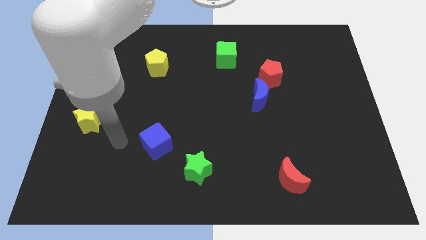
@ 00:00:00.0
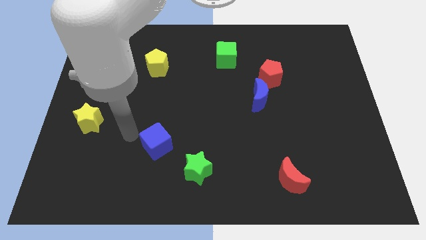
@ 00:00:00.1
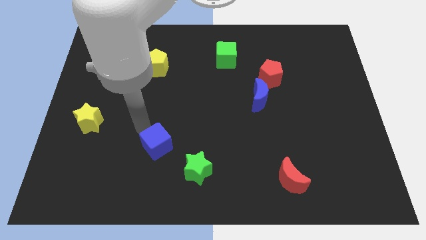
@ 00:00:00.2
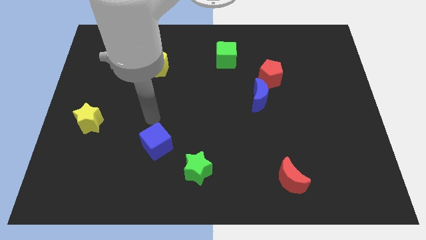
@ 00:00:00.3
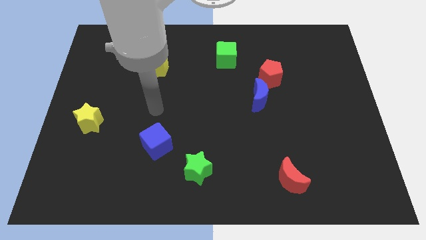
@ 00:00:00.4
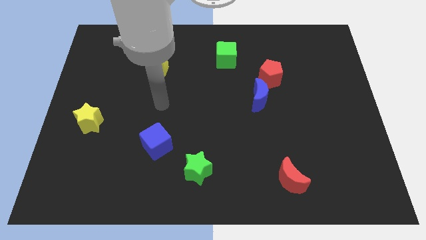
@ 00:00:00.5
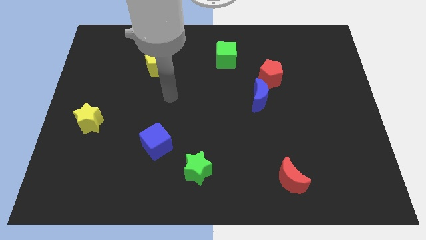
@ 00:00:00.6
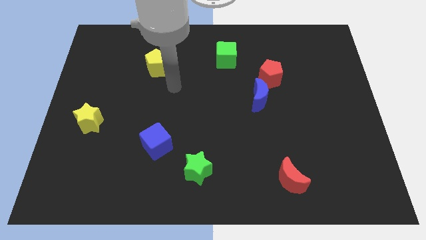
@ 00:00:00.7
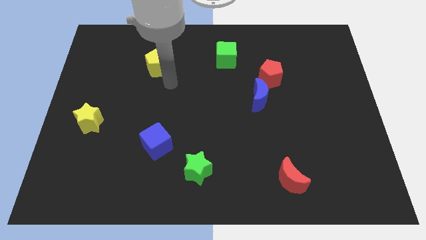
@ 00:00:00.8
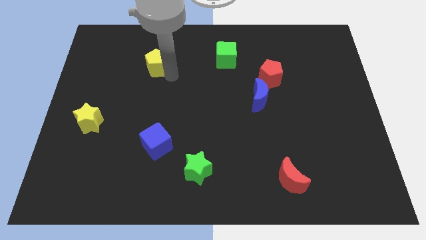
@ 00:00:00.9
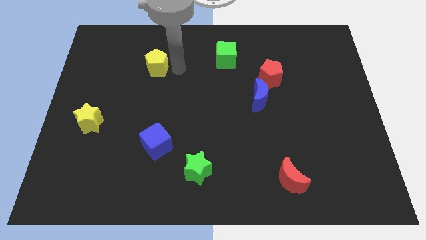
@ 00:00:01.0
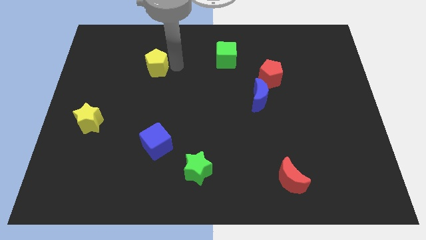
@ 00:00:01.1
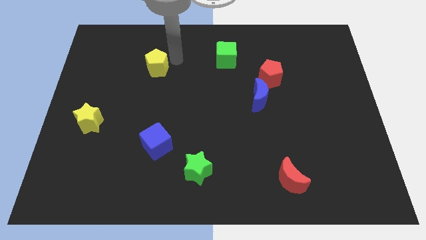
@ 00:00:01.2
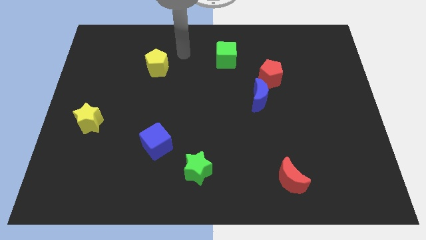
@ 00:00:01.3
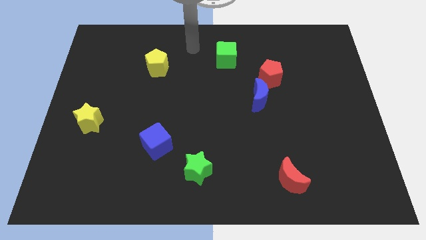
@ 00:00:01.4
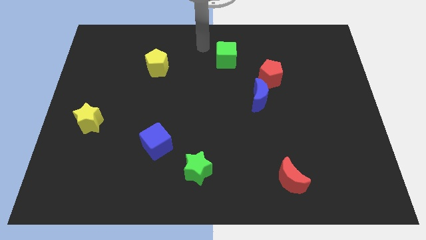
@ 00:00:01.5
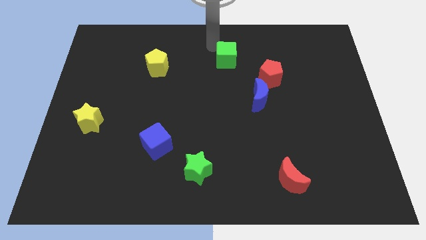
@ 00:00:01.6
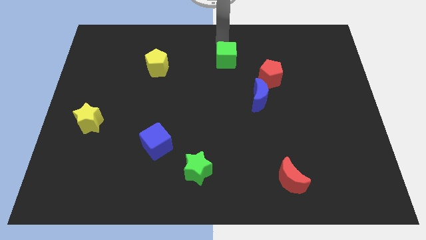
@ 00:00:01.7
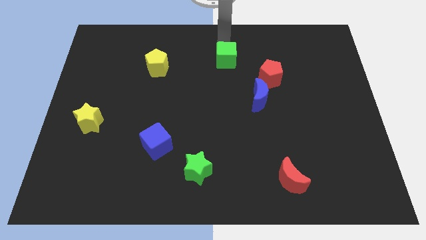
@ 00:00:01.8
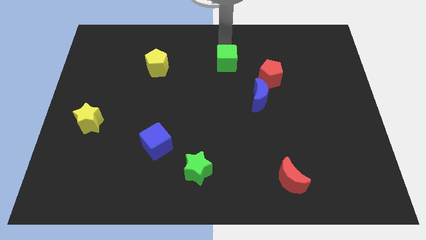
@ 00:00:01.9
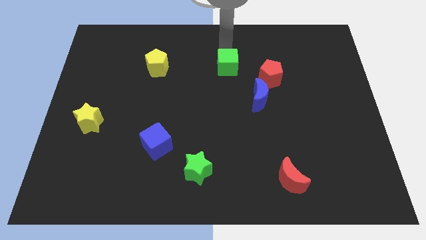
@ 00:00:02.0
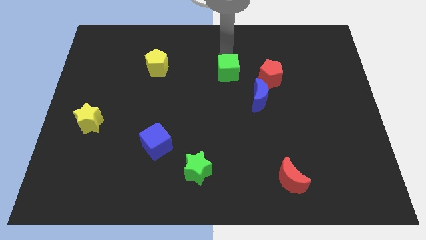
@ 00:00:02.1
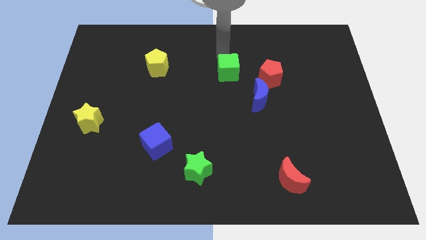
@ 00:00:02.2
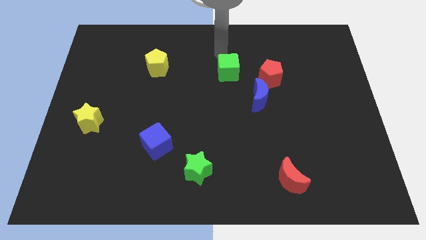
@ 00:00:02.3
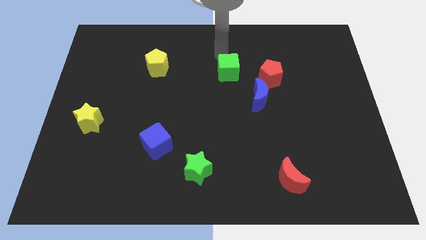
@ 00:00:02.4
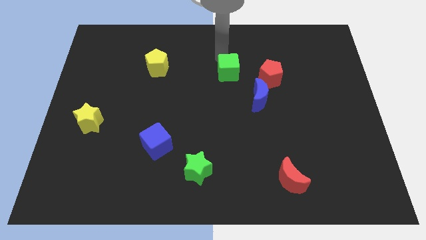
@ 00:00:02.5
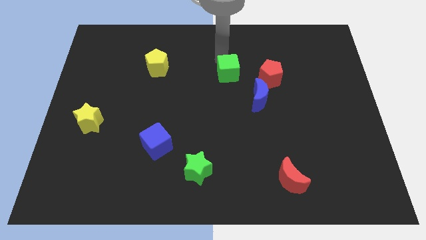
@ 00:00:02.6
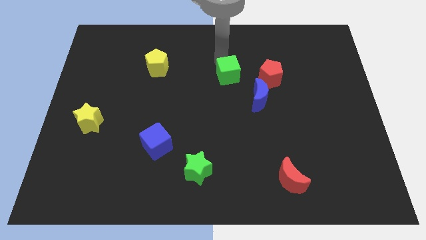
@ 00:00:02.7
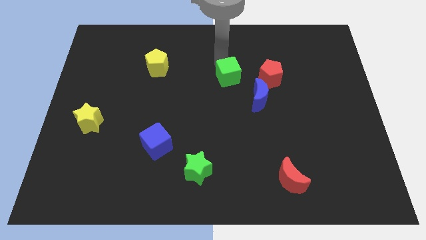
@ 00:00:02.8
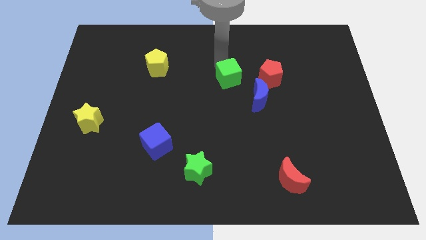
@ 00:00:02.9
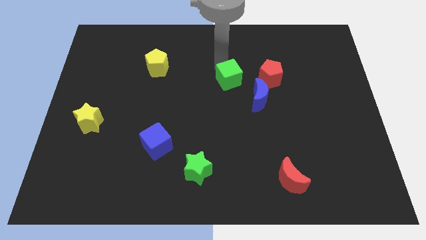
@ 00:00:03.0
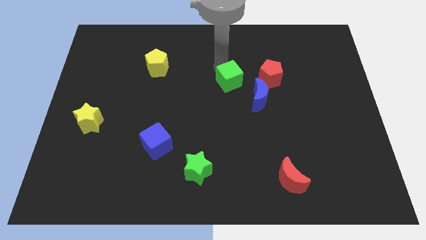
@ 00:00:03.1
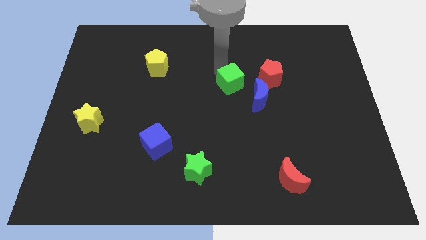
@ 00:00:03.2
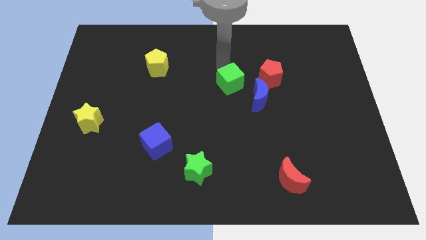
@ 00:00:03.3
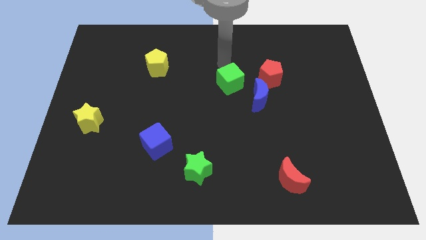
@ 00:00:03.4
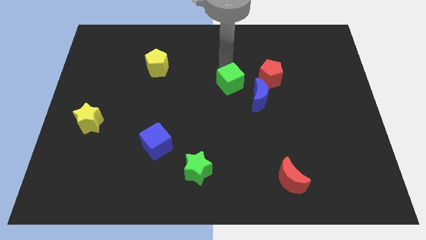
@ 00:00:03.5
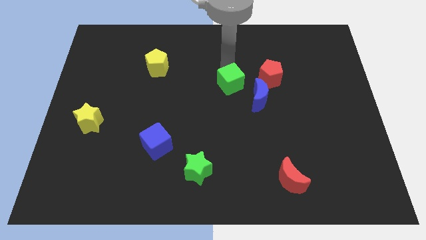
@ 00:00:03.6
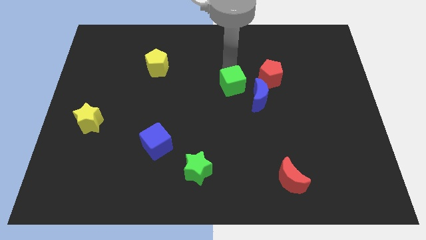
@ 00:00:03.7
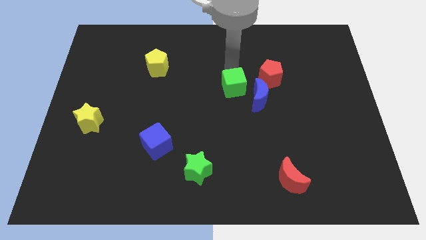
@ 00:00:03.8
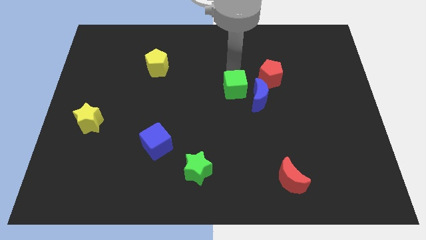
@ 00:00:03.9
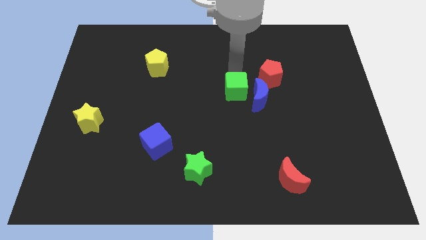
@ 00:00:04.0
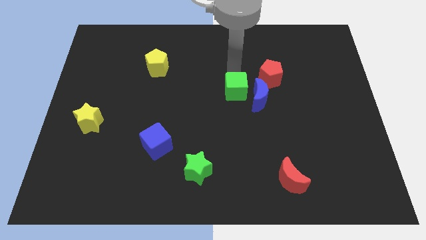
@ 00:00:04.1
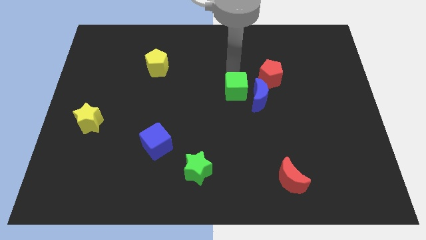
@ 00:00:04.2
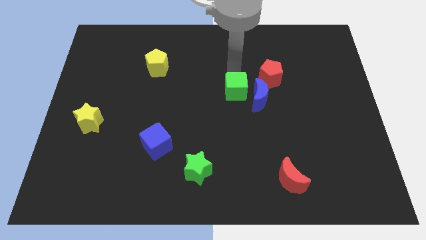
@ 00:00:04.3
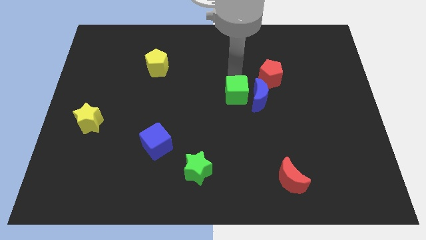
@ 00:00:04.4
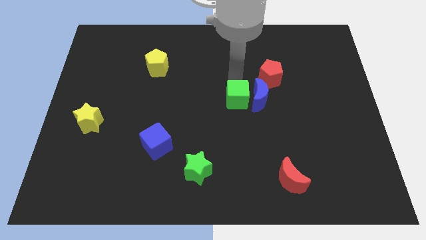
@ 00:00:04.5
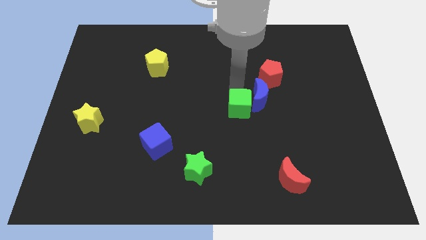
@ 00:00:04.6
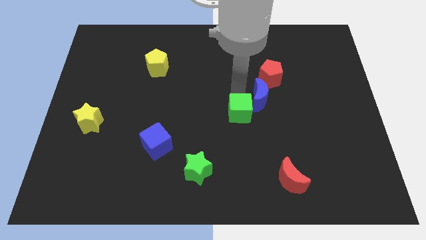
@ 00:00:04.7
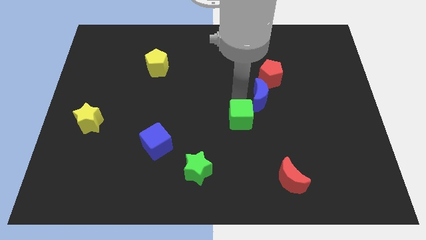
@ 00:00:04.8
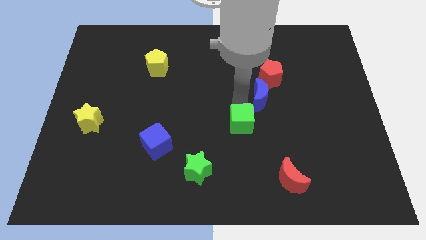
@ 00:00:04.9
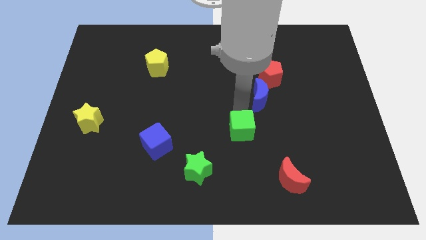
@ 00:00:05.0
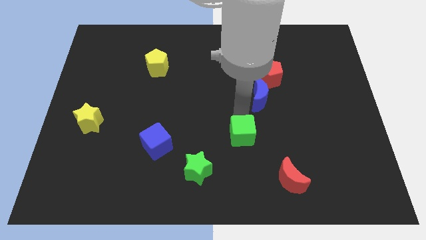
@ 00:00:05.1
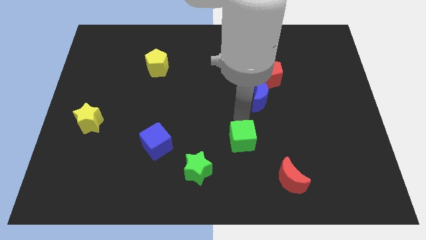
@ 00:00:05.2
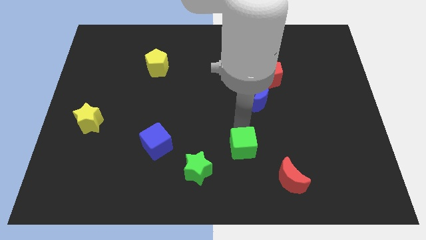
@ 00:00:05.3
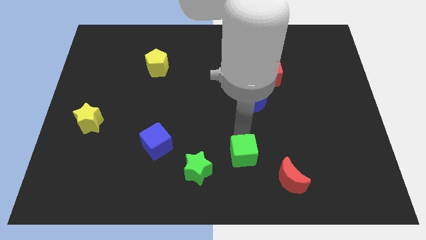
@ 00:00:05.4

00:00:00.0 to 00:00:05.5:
push the green cube just right of the green star
